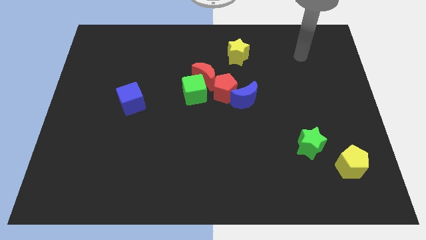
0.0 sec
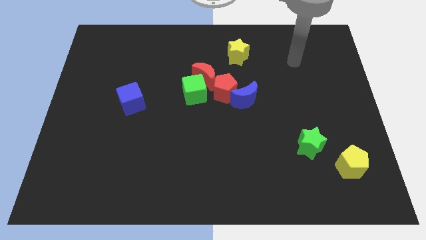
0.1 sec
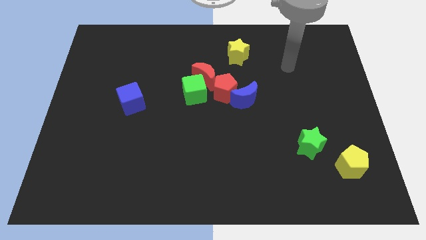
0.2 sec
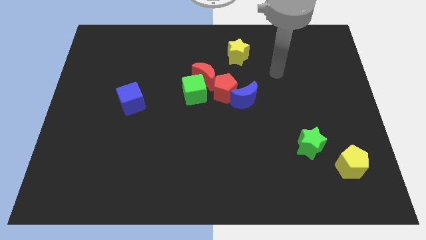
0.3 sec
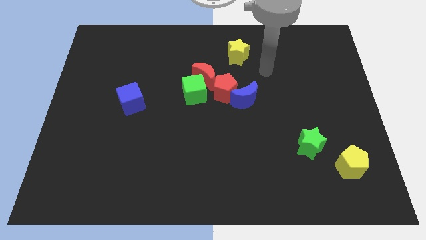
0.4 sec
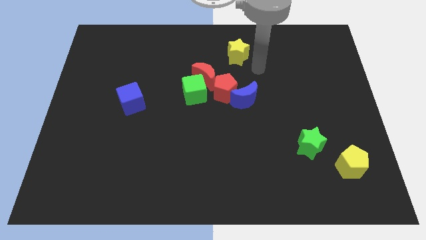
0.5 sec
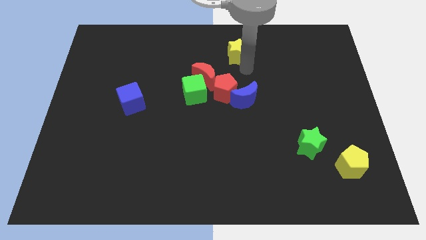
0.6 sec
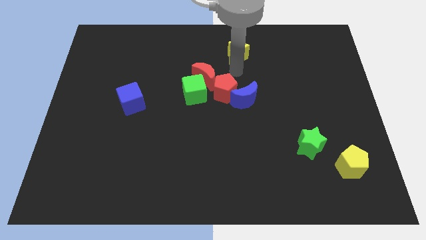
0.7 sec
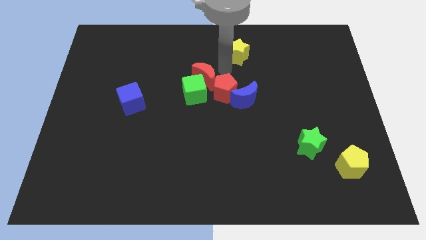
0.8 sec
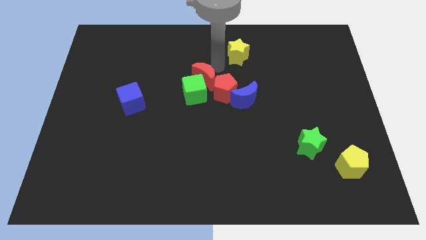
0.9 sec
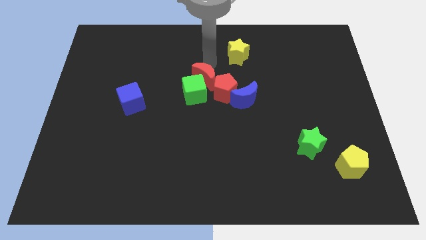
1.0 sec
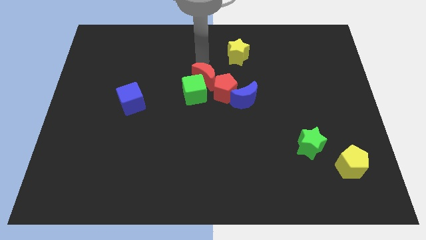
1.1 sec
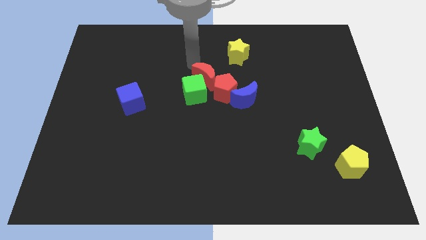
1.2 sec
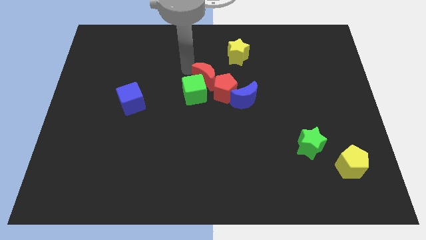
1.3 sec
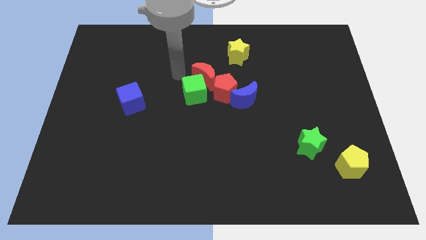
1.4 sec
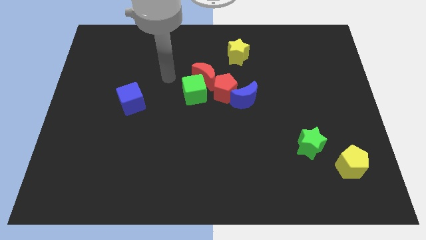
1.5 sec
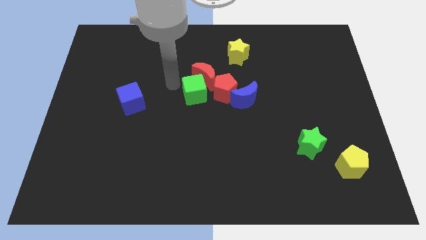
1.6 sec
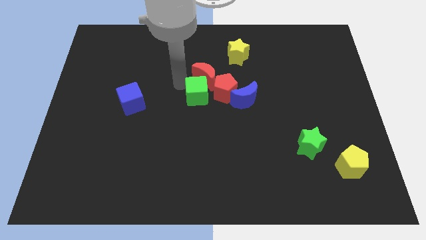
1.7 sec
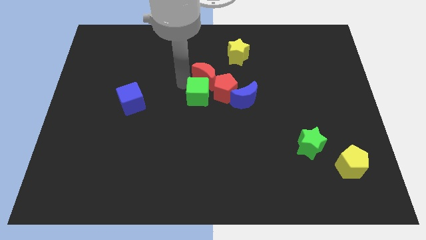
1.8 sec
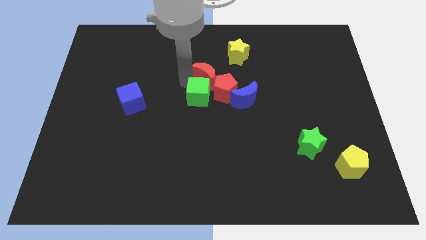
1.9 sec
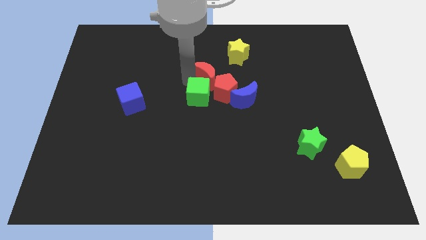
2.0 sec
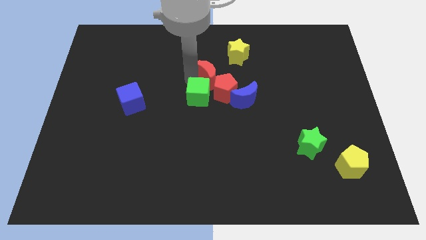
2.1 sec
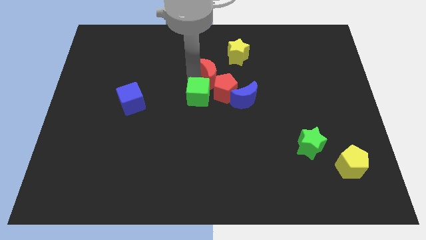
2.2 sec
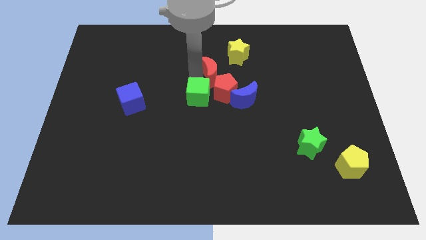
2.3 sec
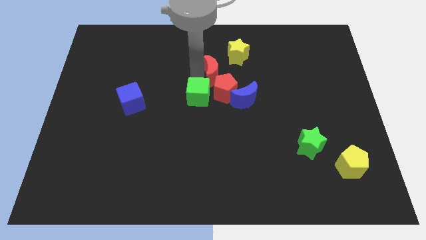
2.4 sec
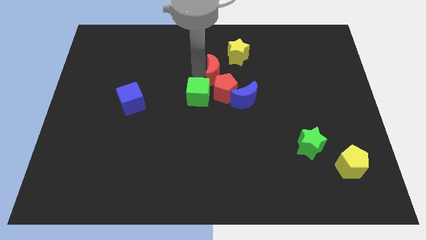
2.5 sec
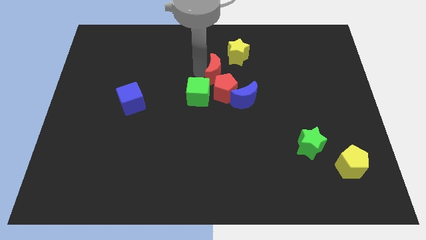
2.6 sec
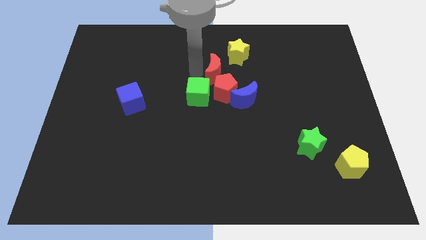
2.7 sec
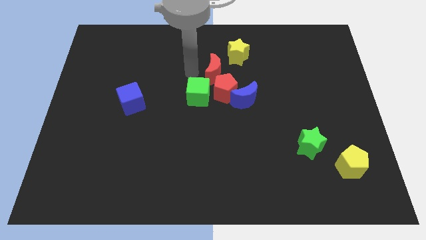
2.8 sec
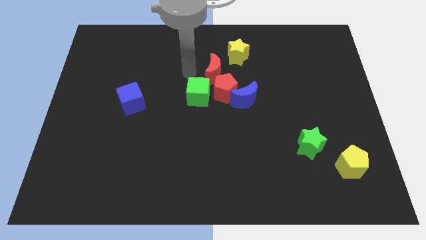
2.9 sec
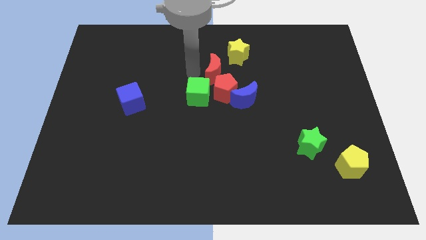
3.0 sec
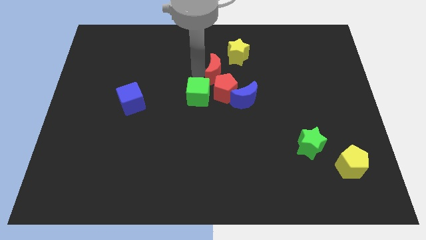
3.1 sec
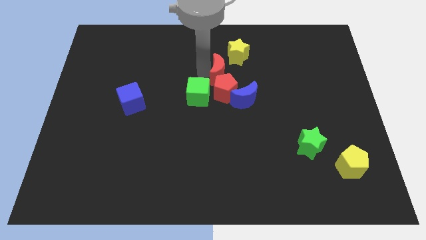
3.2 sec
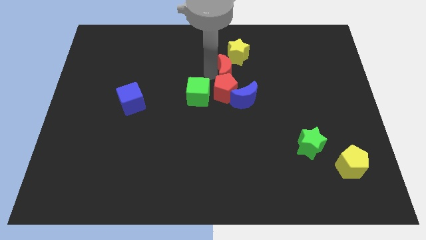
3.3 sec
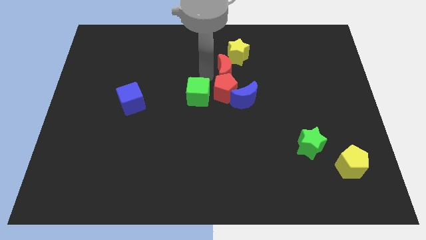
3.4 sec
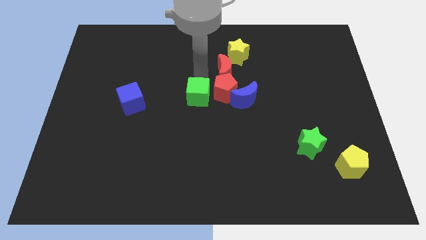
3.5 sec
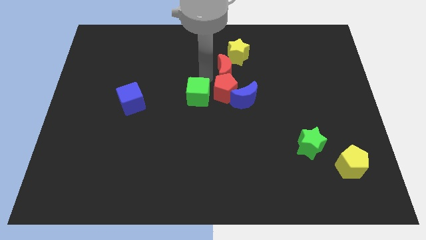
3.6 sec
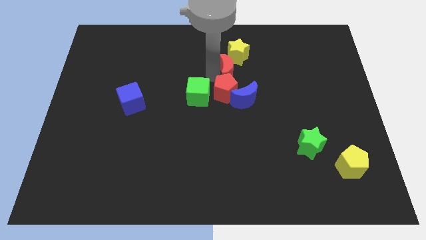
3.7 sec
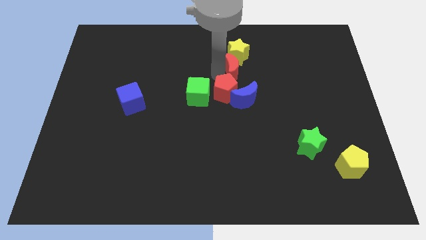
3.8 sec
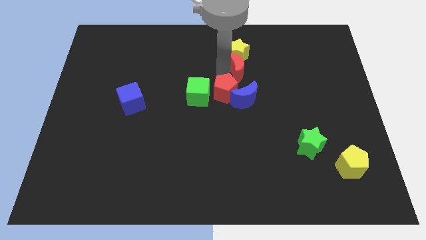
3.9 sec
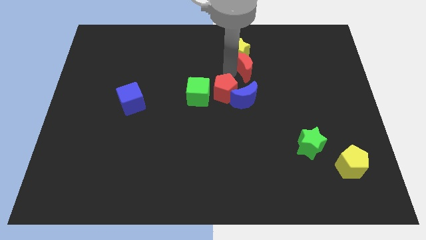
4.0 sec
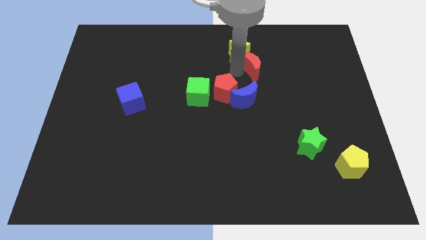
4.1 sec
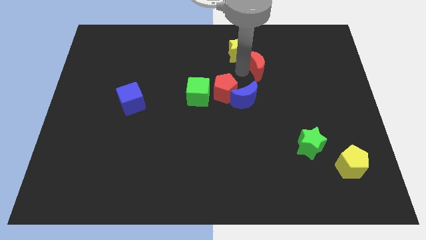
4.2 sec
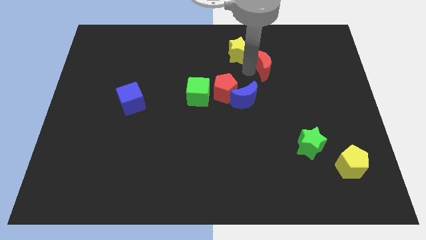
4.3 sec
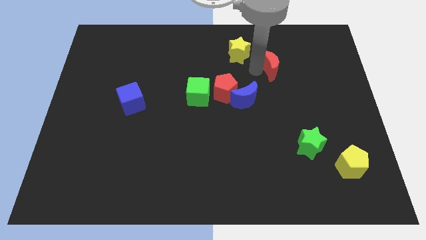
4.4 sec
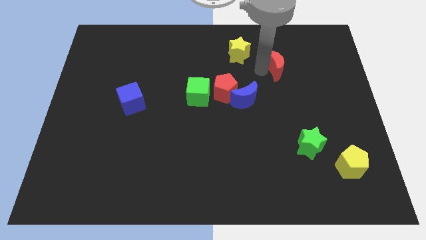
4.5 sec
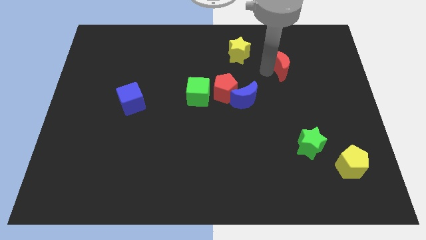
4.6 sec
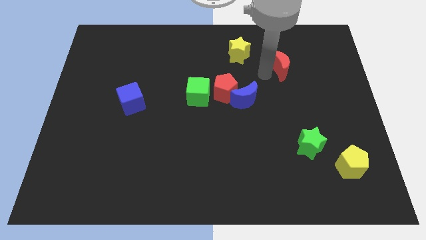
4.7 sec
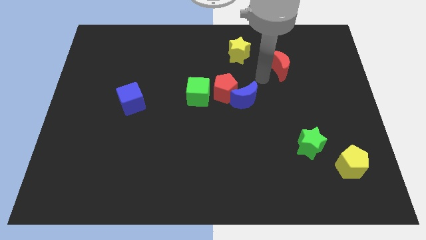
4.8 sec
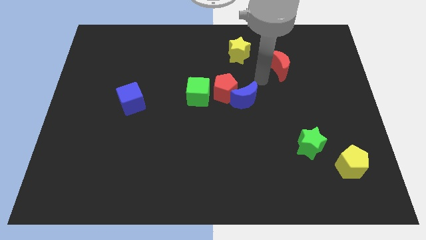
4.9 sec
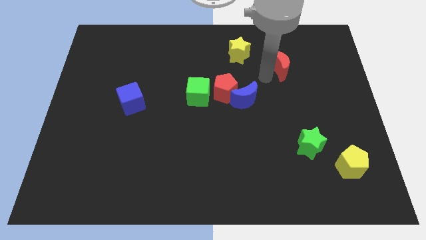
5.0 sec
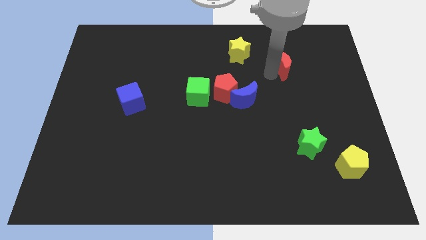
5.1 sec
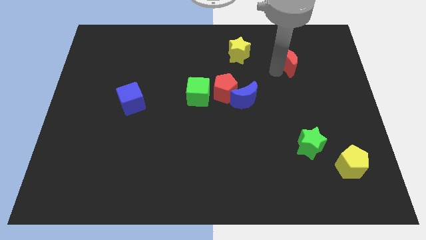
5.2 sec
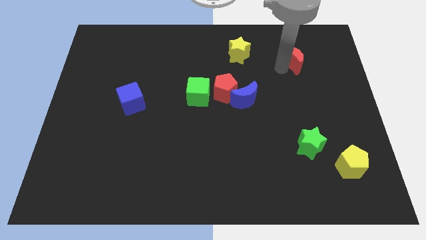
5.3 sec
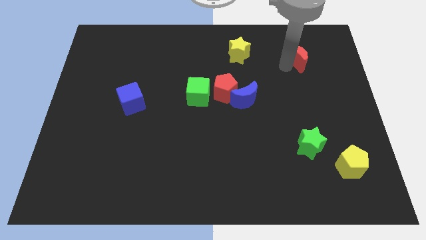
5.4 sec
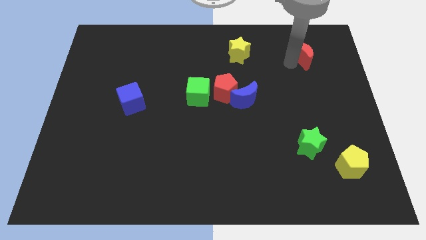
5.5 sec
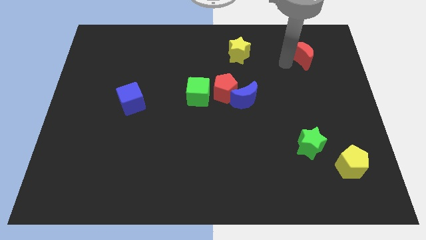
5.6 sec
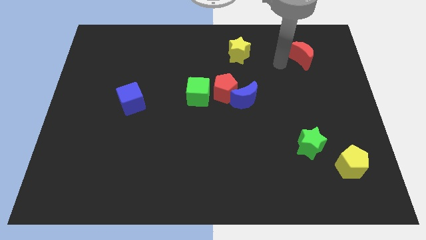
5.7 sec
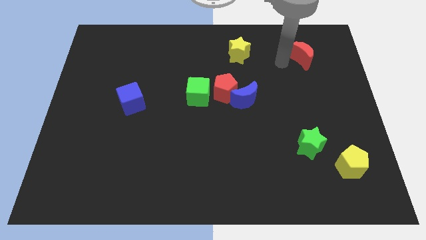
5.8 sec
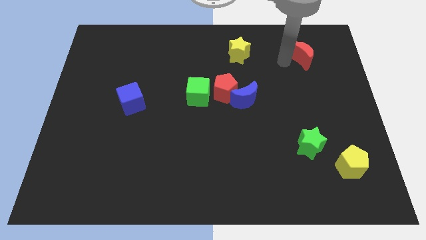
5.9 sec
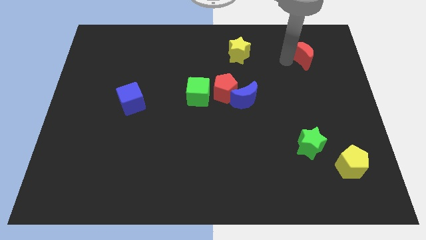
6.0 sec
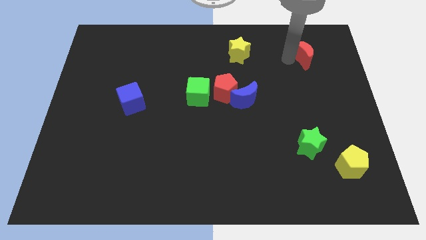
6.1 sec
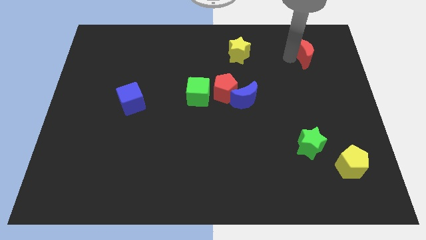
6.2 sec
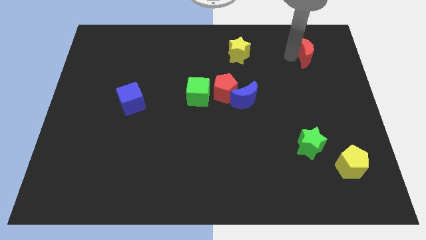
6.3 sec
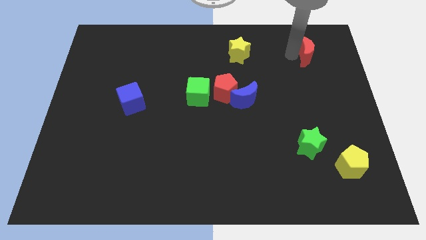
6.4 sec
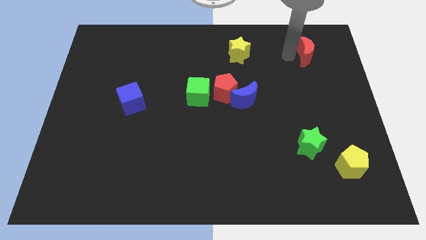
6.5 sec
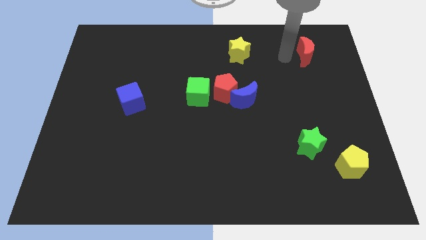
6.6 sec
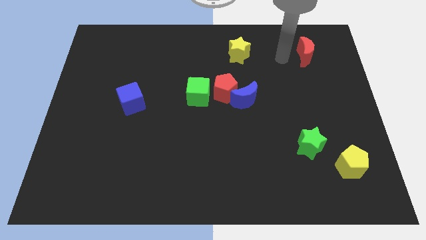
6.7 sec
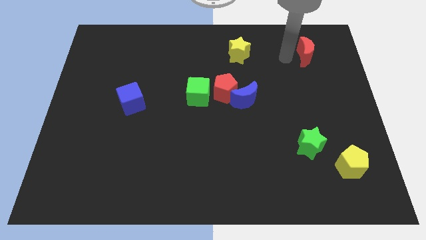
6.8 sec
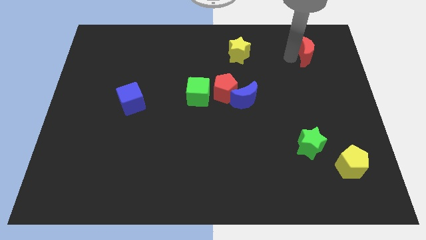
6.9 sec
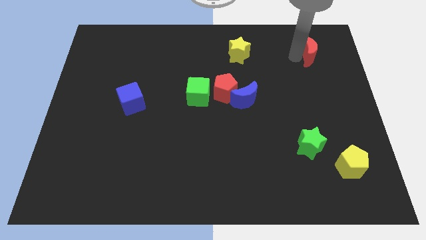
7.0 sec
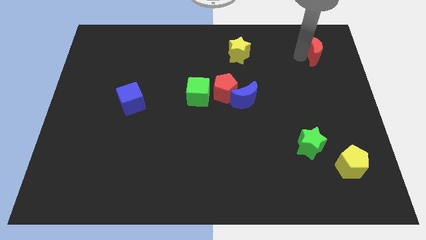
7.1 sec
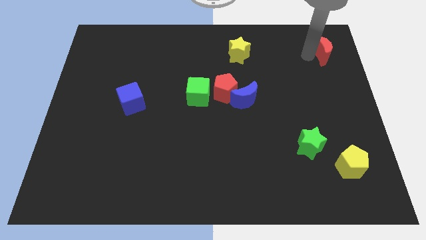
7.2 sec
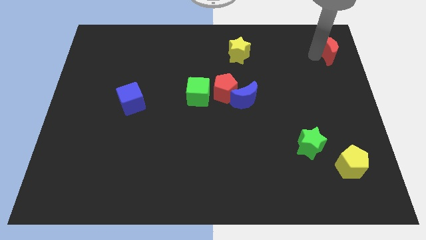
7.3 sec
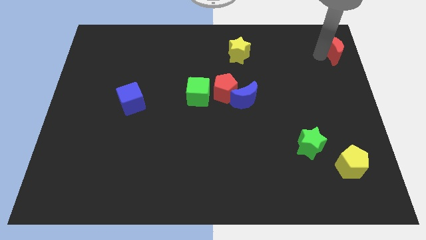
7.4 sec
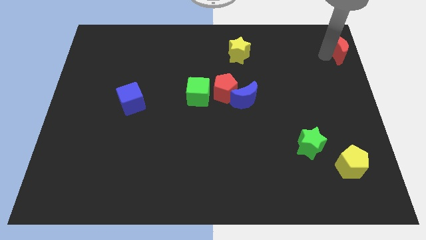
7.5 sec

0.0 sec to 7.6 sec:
put the red moon to the top right of the board

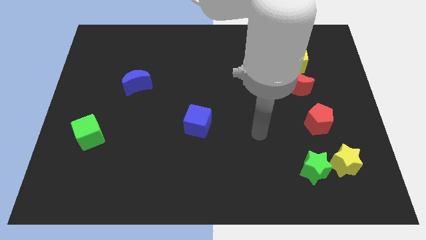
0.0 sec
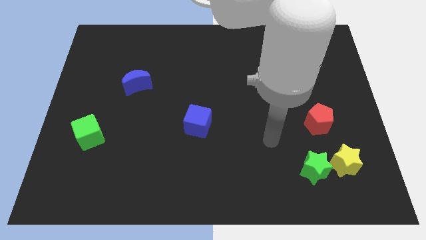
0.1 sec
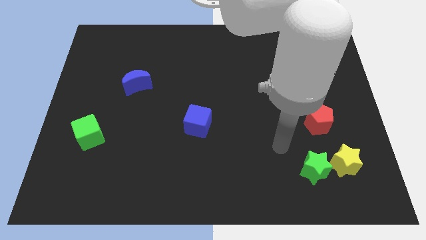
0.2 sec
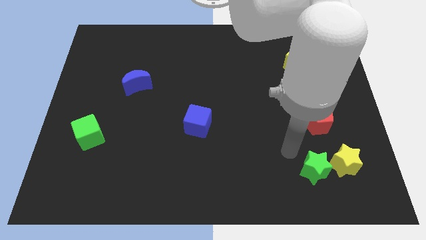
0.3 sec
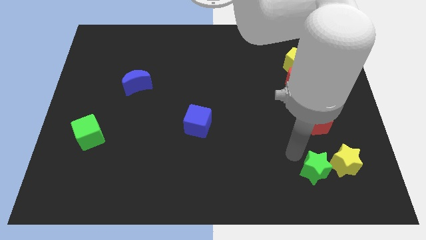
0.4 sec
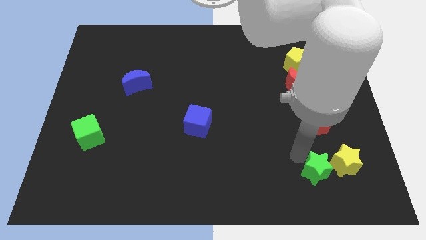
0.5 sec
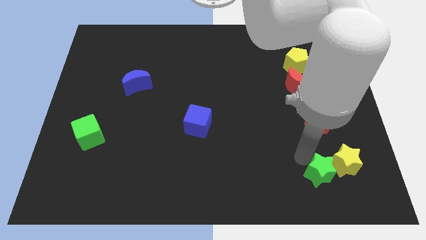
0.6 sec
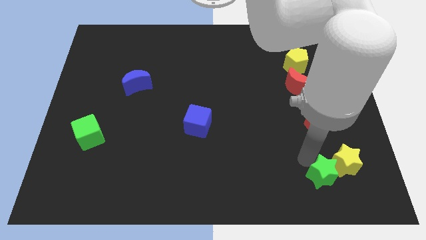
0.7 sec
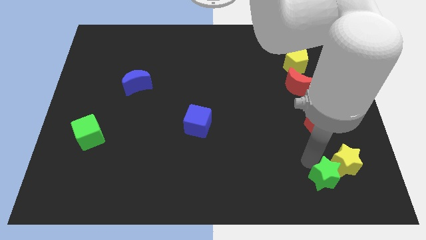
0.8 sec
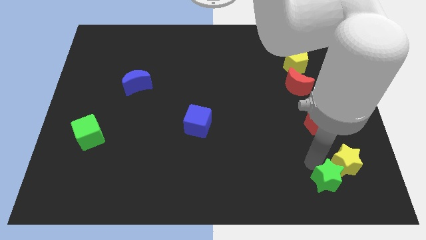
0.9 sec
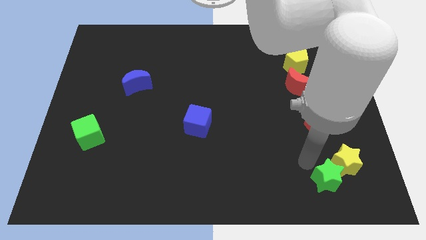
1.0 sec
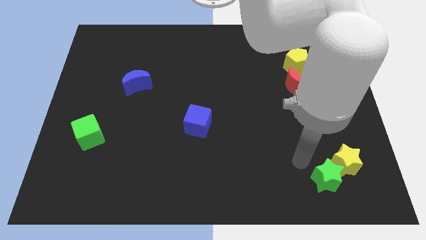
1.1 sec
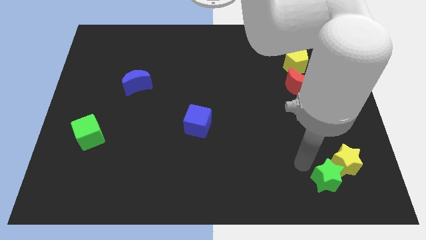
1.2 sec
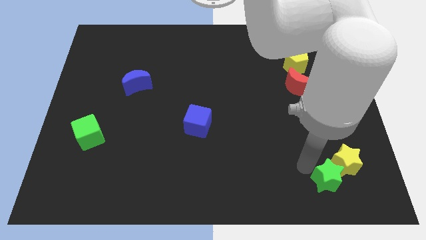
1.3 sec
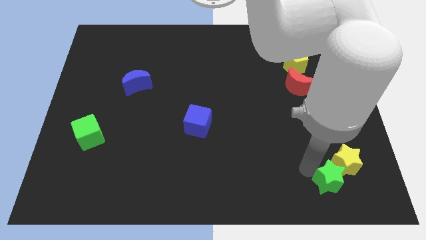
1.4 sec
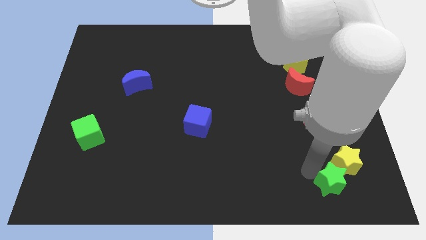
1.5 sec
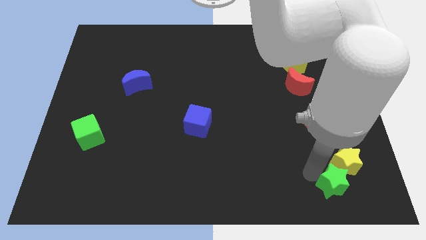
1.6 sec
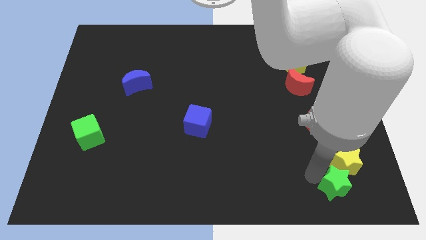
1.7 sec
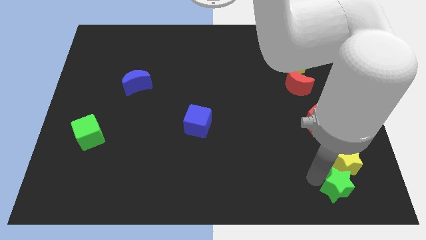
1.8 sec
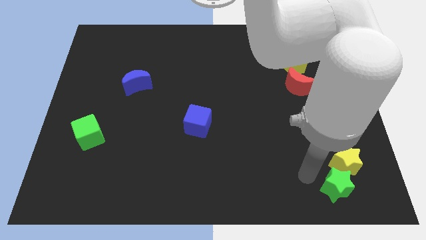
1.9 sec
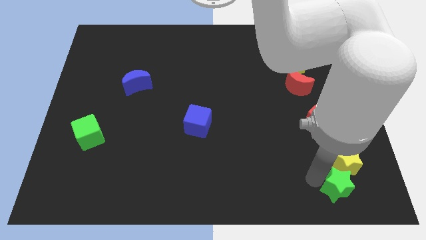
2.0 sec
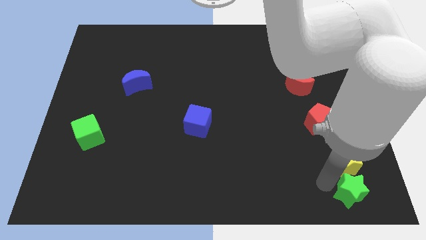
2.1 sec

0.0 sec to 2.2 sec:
move the green star to the bottom right
